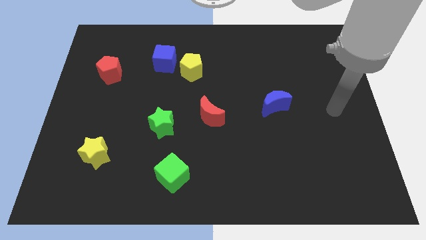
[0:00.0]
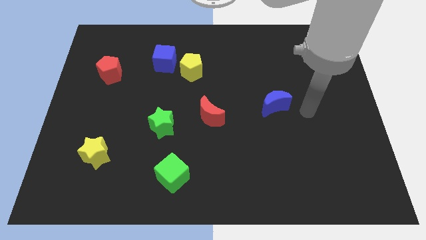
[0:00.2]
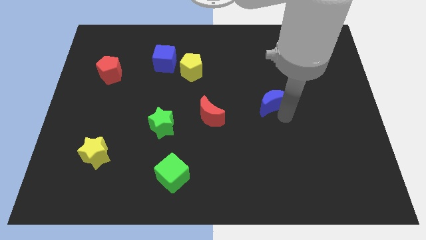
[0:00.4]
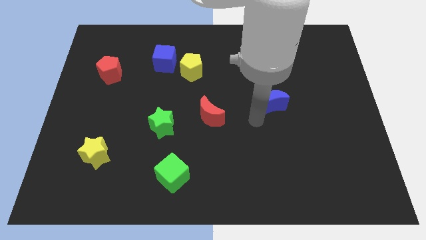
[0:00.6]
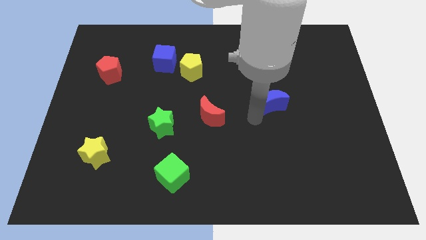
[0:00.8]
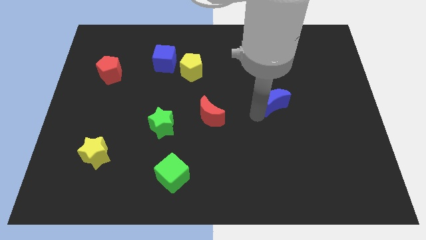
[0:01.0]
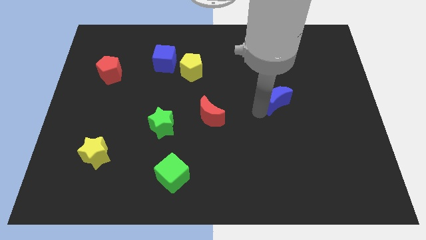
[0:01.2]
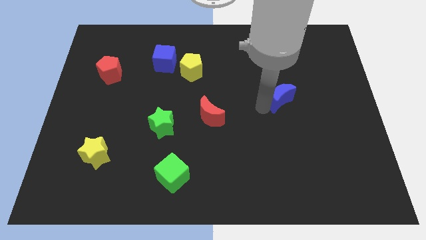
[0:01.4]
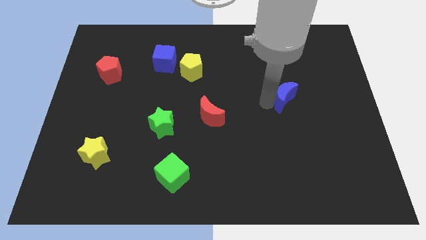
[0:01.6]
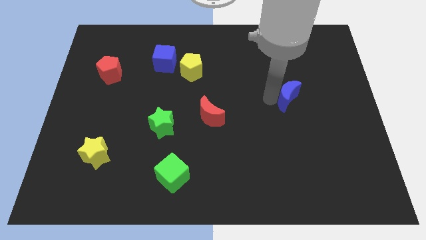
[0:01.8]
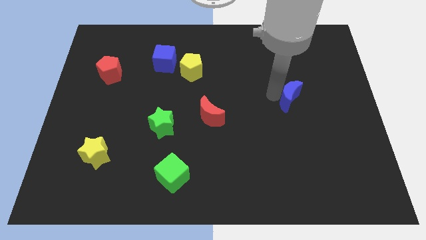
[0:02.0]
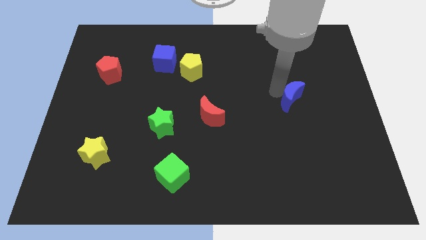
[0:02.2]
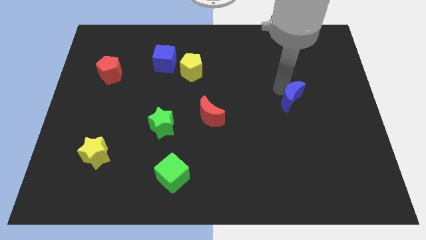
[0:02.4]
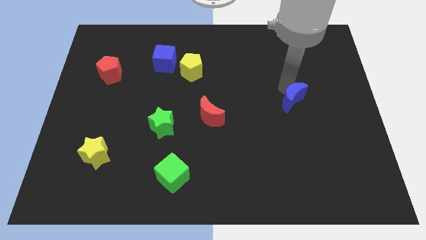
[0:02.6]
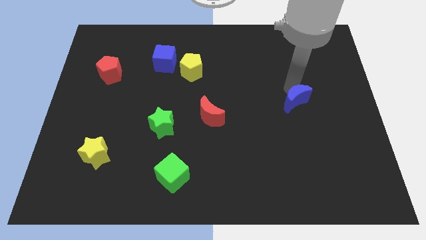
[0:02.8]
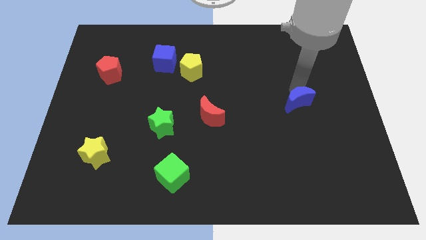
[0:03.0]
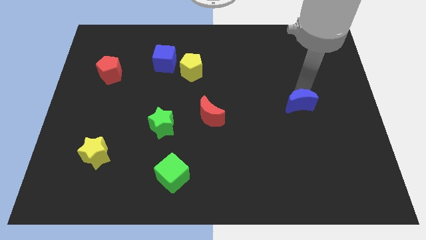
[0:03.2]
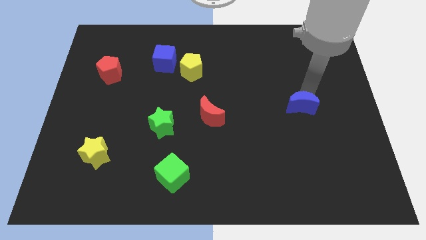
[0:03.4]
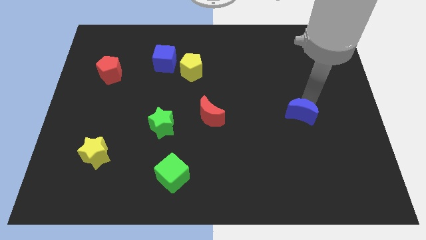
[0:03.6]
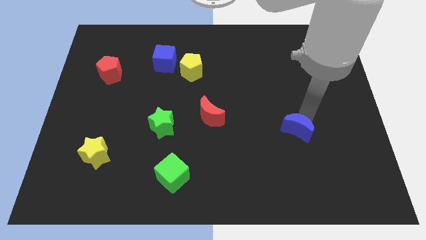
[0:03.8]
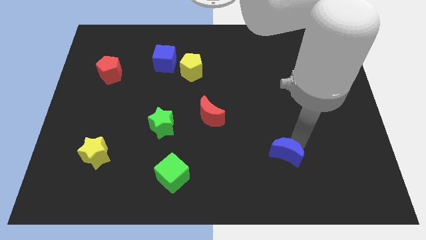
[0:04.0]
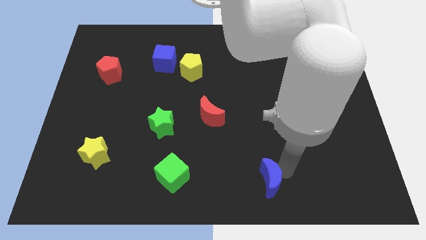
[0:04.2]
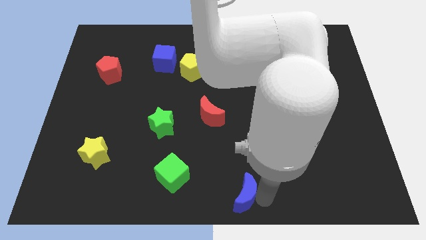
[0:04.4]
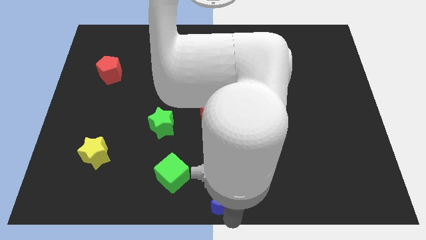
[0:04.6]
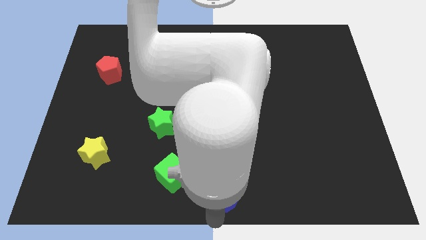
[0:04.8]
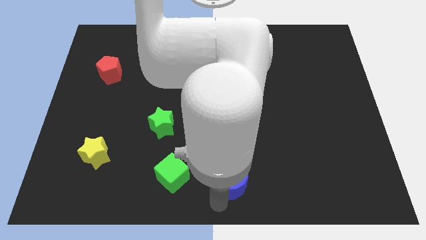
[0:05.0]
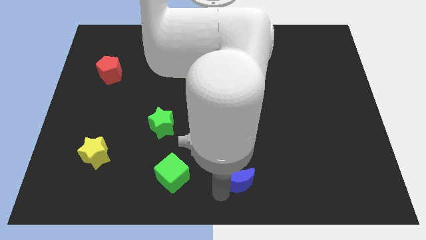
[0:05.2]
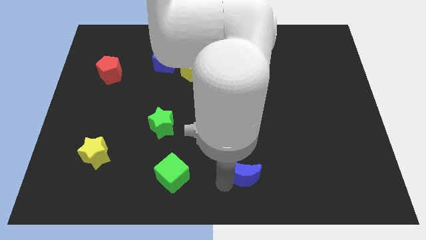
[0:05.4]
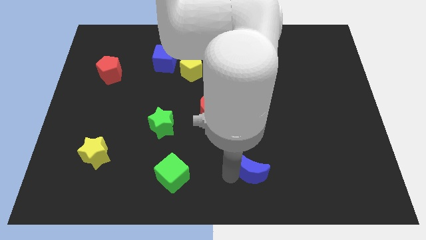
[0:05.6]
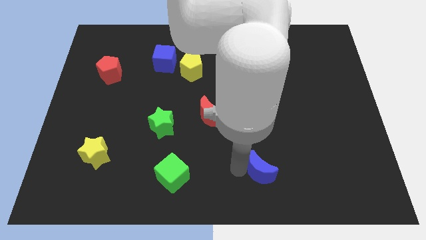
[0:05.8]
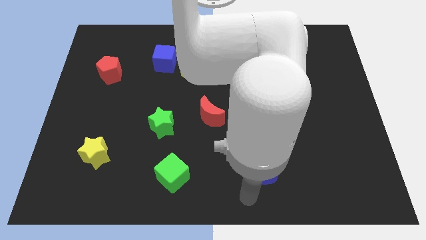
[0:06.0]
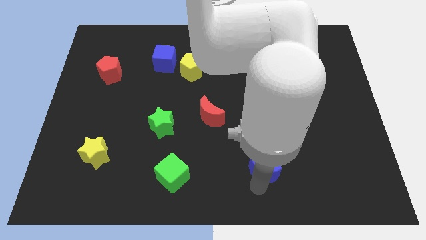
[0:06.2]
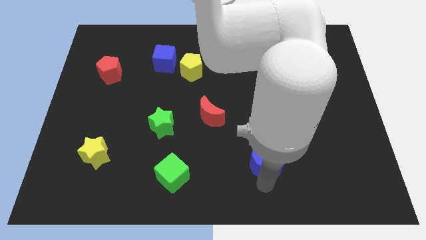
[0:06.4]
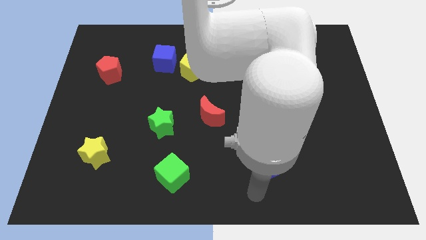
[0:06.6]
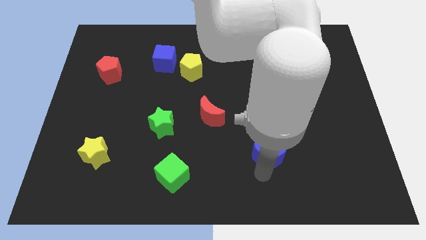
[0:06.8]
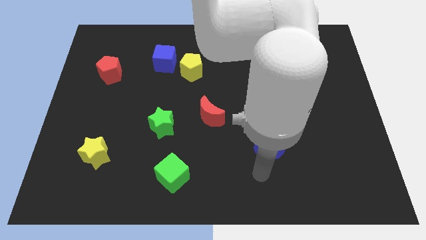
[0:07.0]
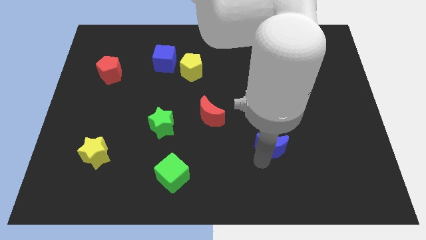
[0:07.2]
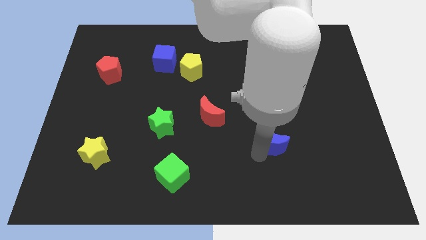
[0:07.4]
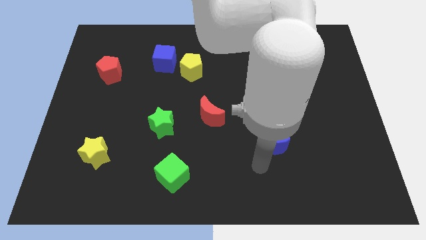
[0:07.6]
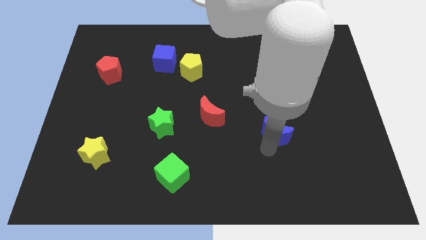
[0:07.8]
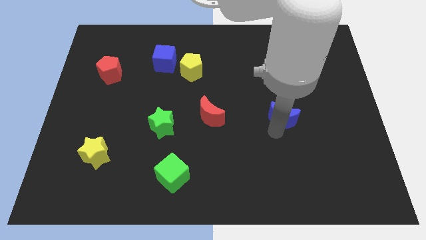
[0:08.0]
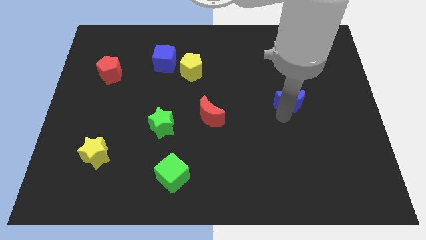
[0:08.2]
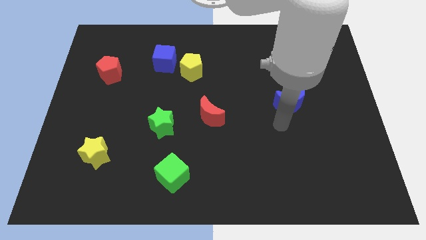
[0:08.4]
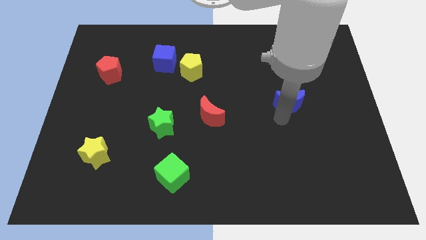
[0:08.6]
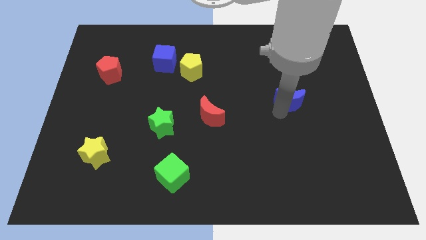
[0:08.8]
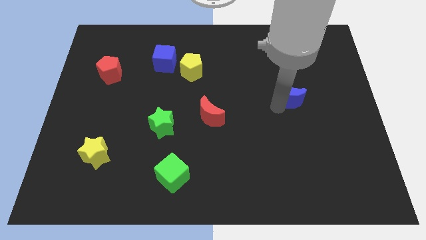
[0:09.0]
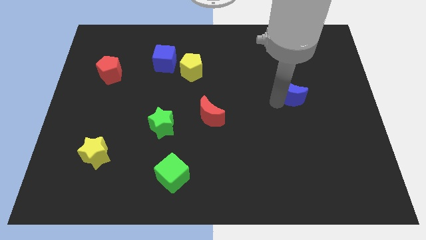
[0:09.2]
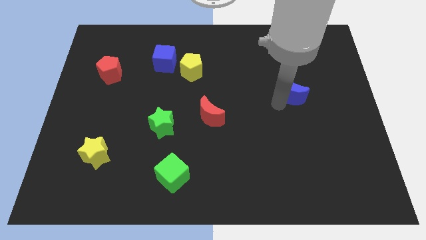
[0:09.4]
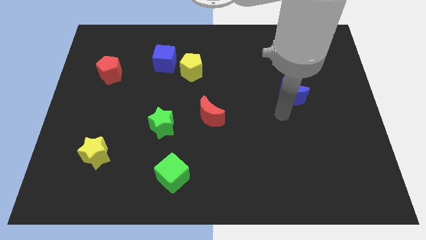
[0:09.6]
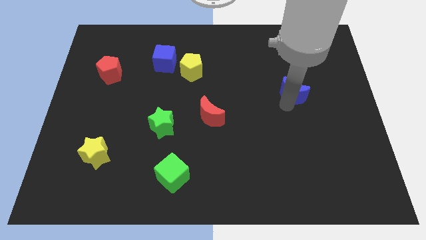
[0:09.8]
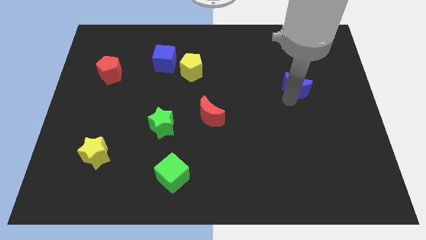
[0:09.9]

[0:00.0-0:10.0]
slide the blue moon upwards and to the right a little bit

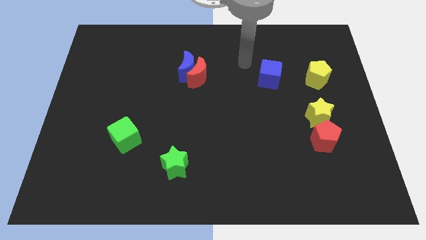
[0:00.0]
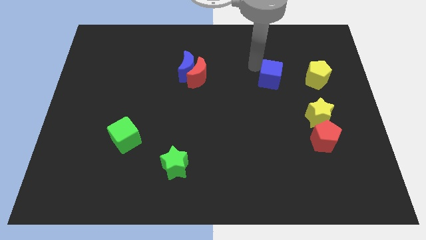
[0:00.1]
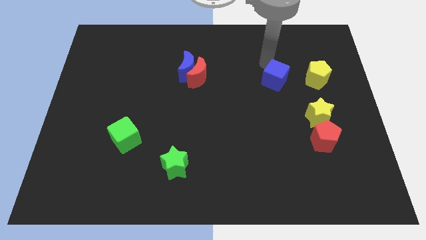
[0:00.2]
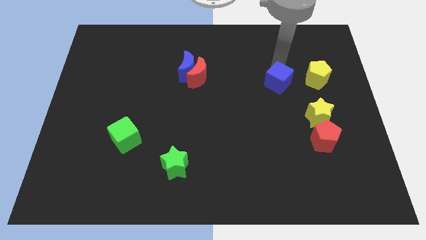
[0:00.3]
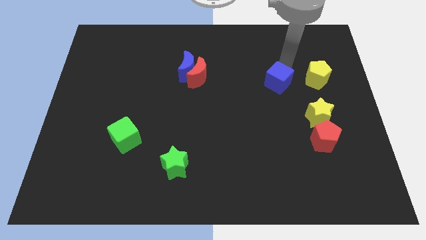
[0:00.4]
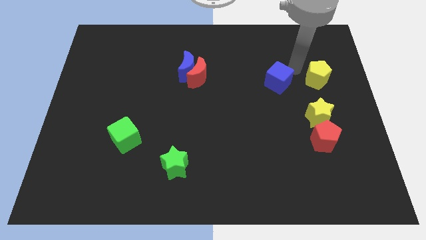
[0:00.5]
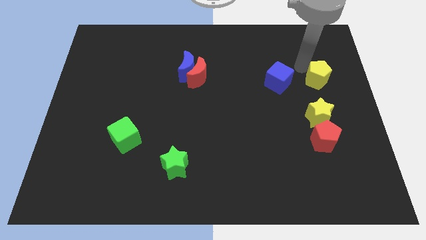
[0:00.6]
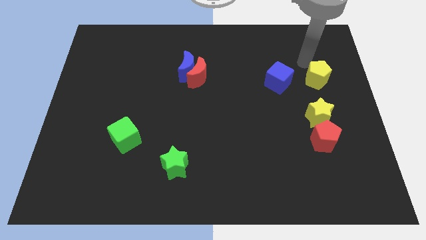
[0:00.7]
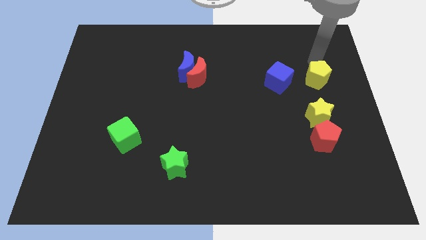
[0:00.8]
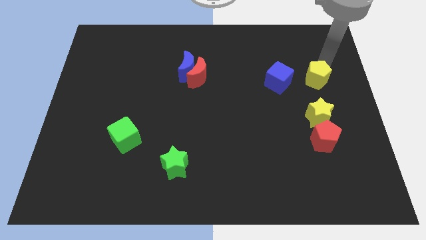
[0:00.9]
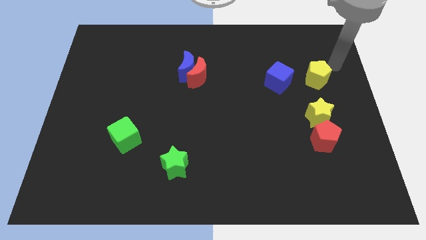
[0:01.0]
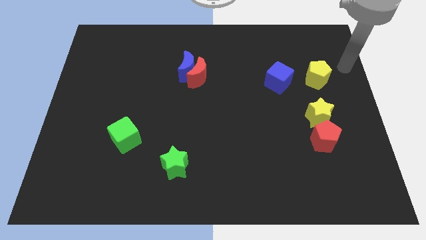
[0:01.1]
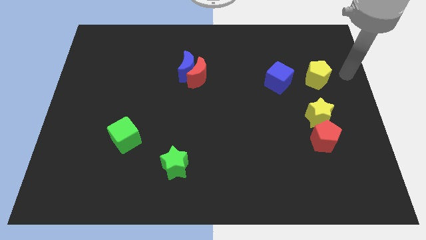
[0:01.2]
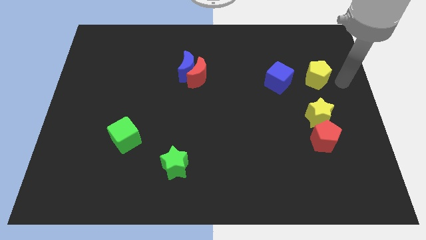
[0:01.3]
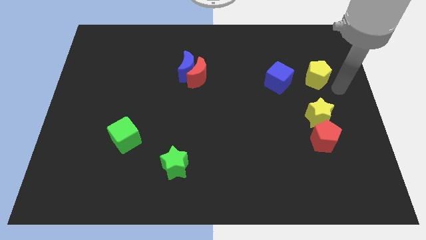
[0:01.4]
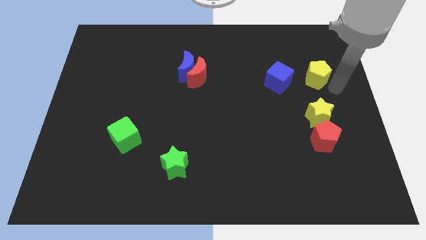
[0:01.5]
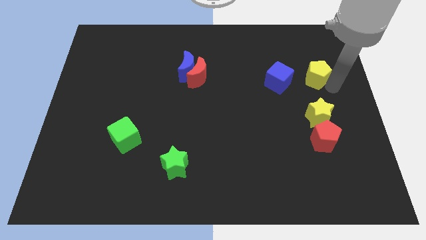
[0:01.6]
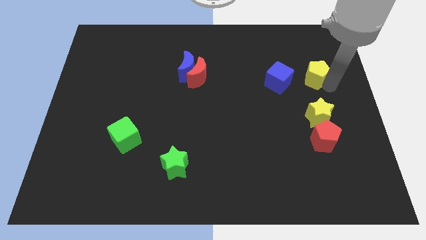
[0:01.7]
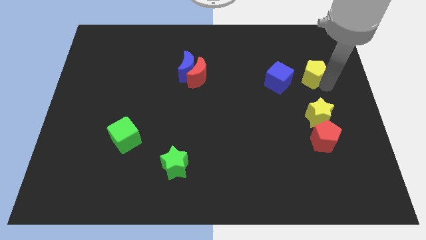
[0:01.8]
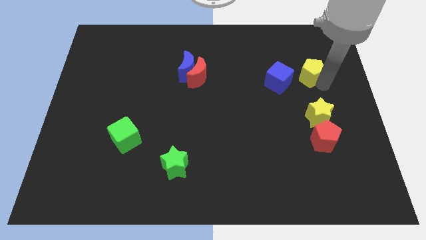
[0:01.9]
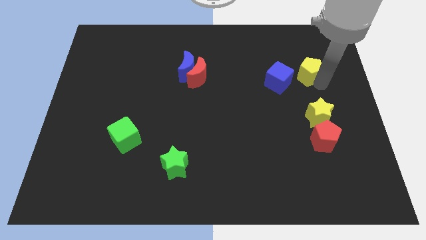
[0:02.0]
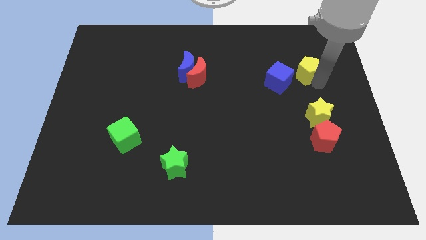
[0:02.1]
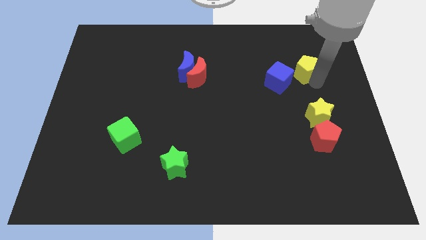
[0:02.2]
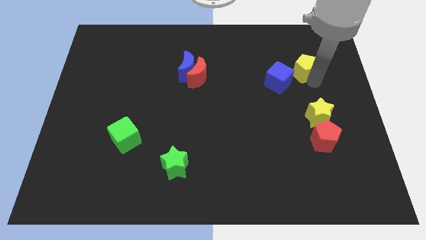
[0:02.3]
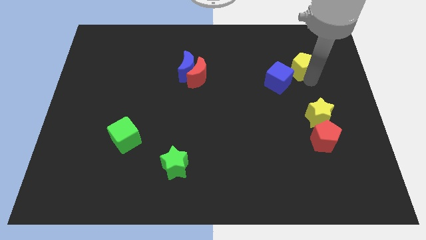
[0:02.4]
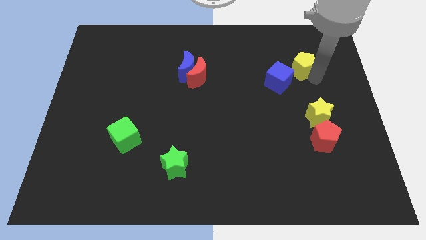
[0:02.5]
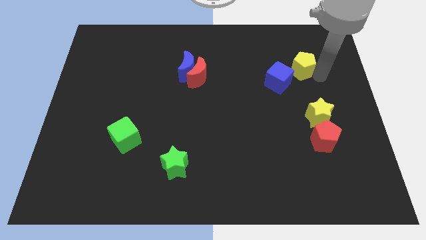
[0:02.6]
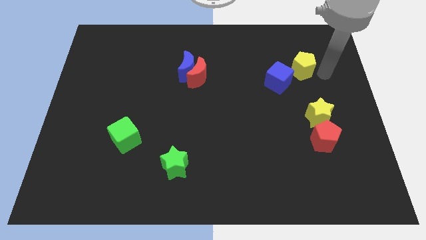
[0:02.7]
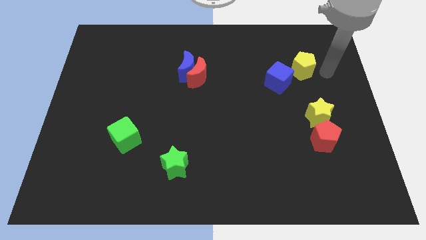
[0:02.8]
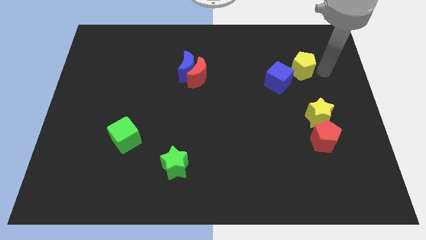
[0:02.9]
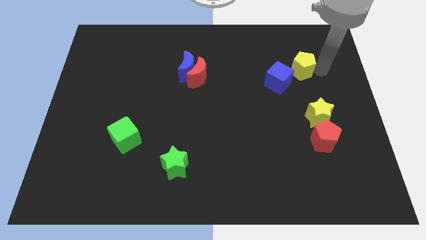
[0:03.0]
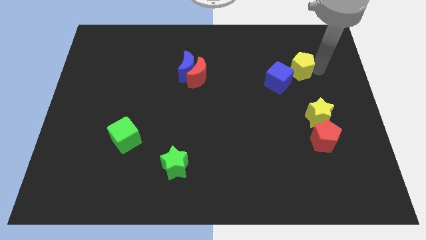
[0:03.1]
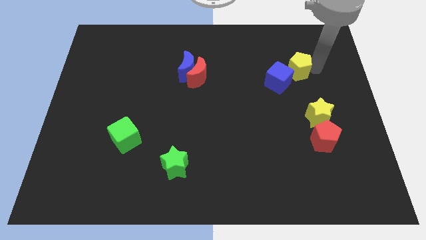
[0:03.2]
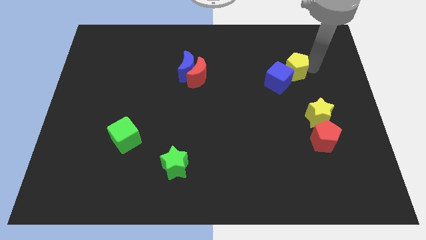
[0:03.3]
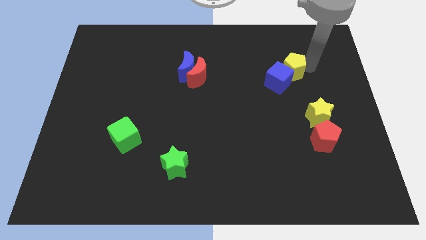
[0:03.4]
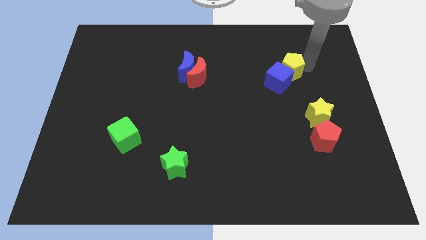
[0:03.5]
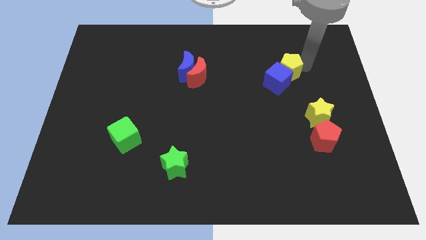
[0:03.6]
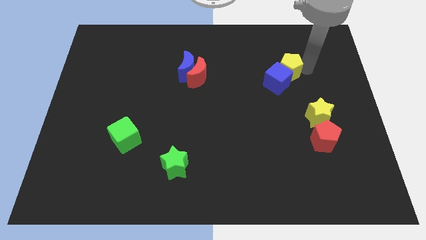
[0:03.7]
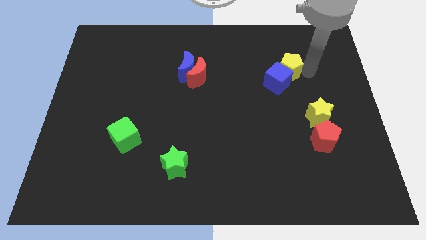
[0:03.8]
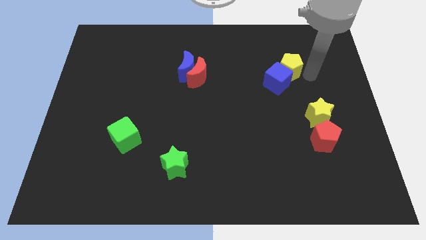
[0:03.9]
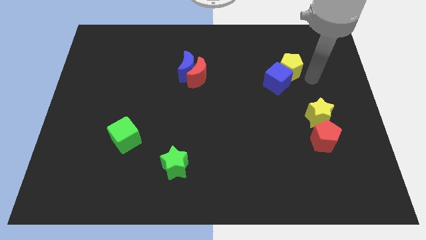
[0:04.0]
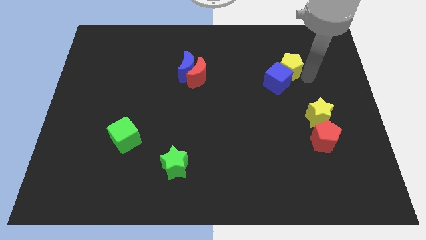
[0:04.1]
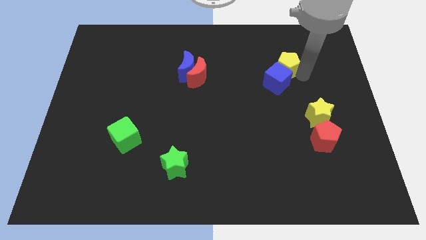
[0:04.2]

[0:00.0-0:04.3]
slide the yellow pentagon left somewhat
